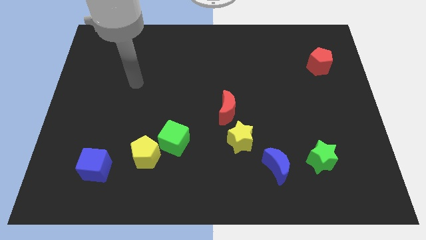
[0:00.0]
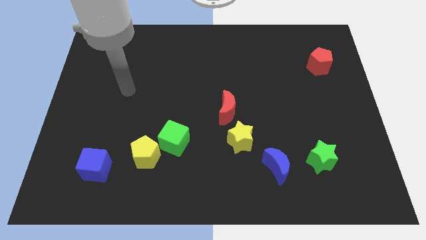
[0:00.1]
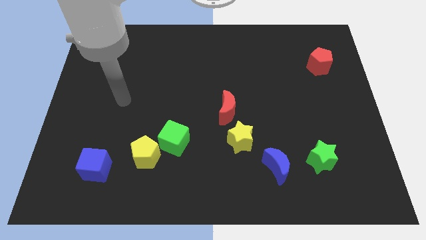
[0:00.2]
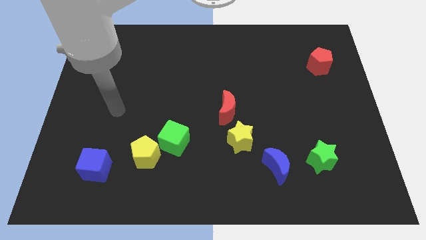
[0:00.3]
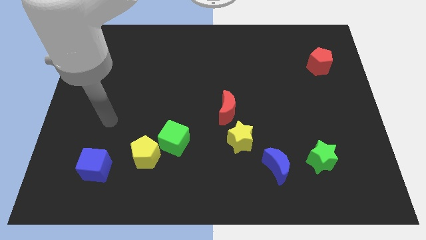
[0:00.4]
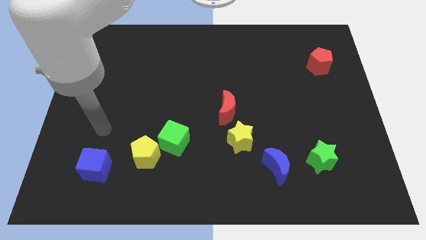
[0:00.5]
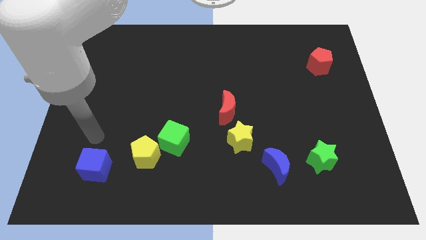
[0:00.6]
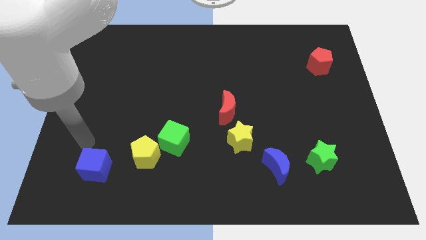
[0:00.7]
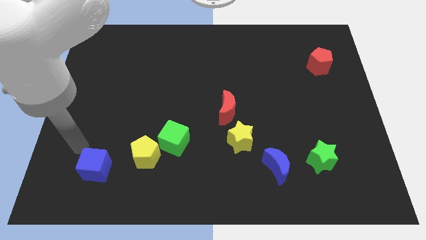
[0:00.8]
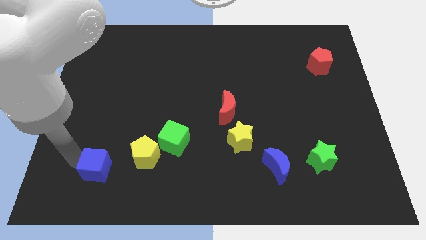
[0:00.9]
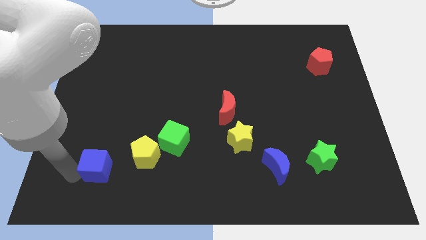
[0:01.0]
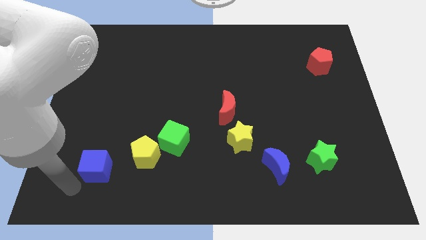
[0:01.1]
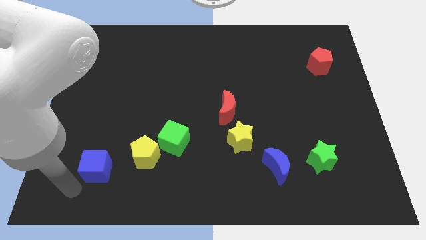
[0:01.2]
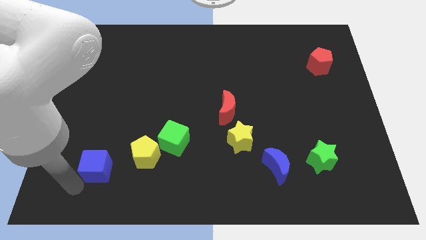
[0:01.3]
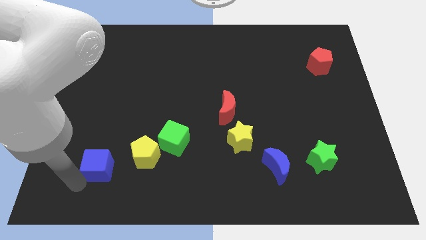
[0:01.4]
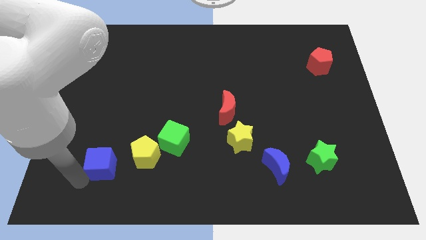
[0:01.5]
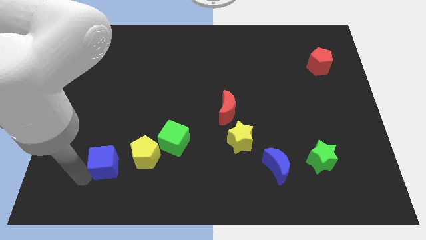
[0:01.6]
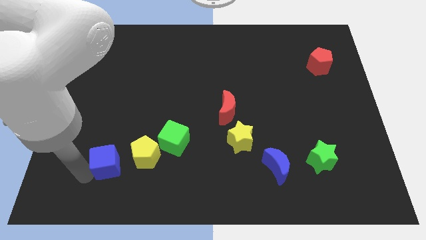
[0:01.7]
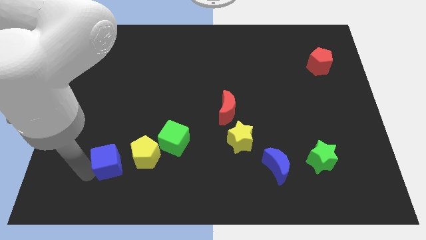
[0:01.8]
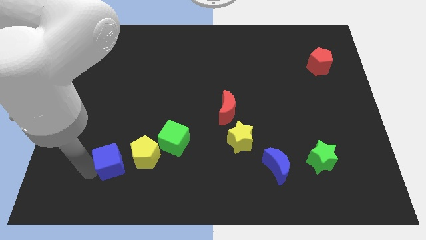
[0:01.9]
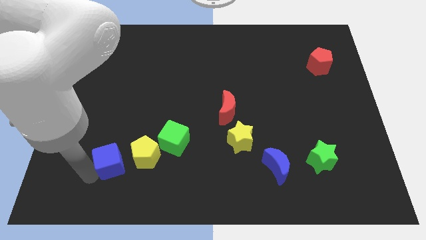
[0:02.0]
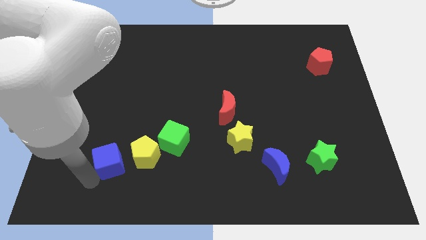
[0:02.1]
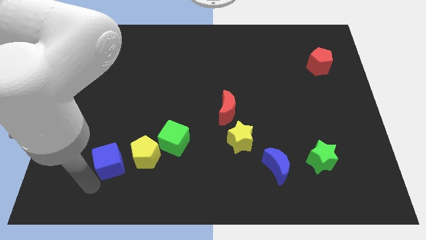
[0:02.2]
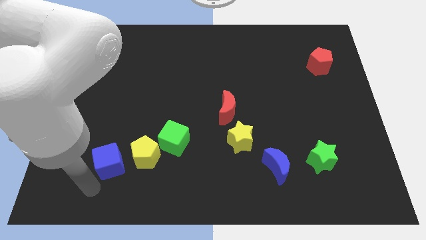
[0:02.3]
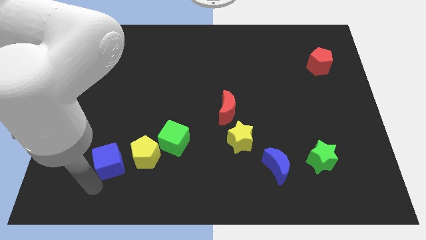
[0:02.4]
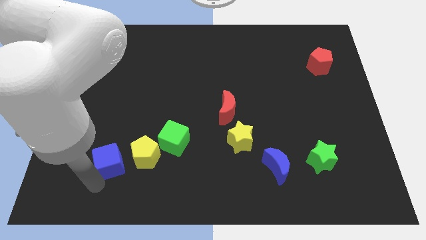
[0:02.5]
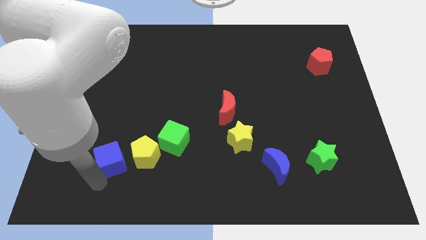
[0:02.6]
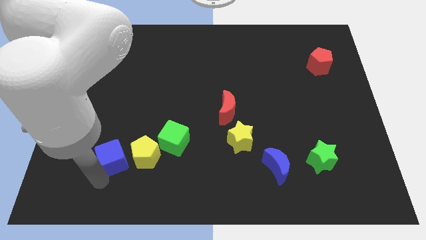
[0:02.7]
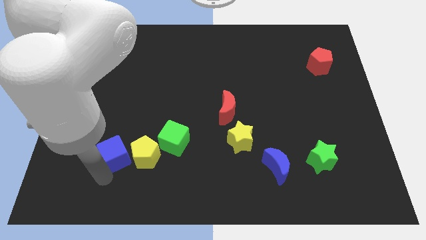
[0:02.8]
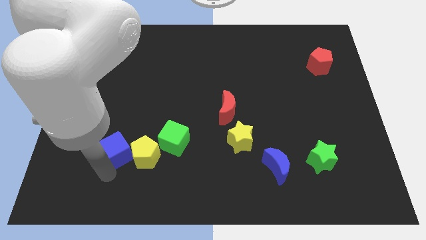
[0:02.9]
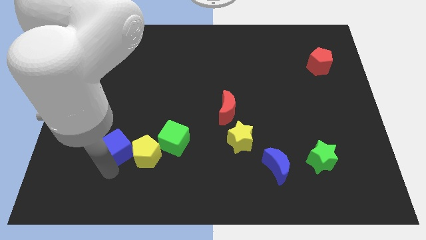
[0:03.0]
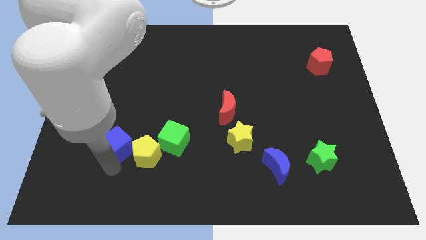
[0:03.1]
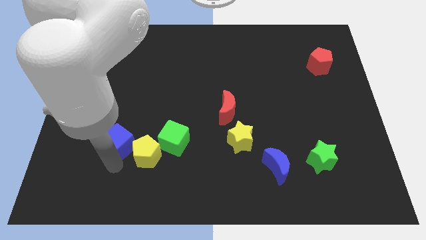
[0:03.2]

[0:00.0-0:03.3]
push the blue cube slightly up and right

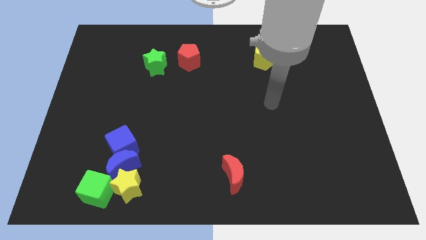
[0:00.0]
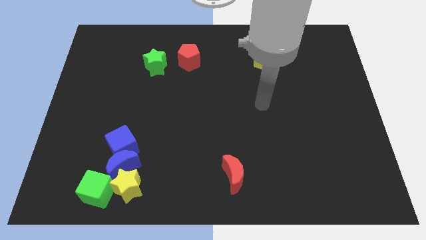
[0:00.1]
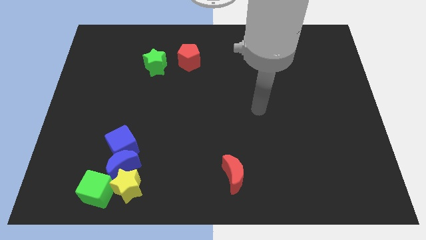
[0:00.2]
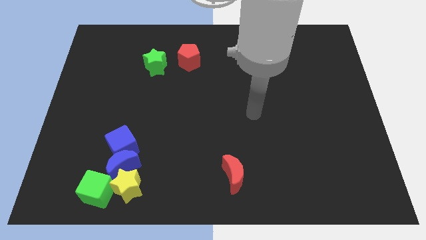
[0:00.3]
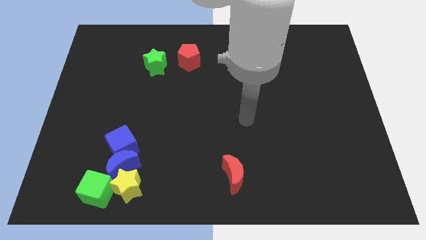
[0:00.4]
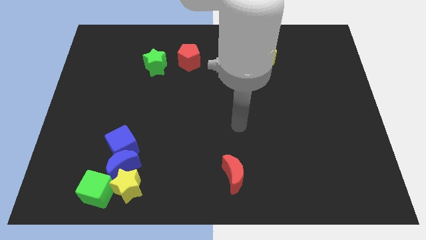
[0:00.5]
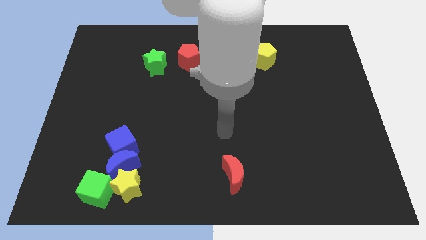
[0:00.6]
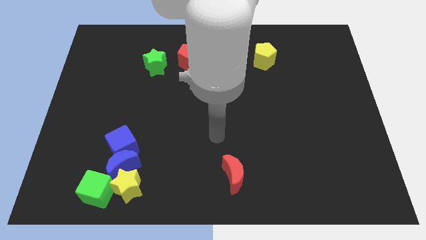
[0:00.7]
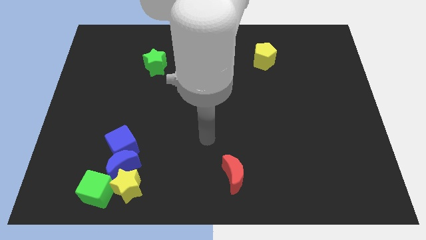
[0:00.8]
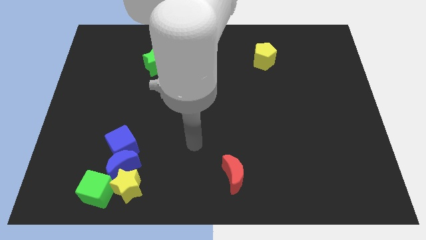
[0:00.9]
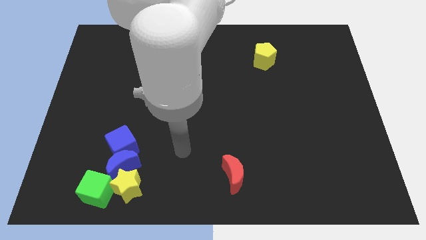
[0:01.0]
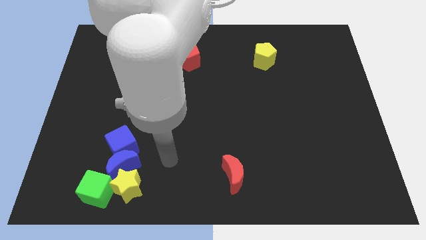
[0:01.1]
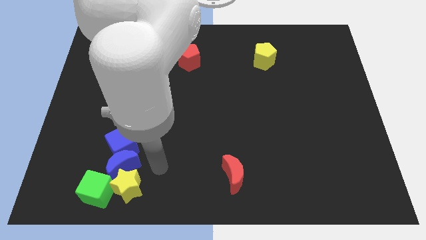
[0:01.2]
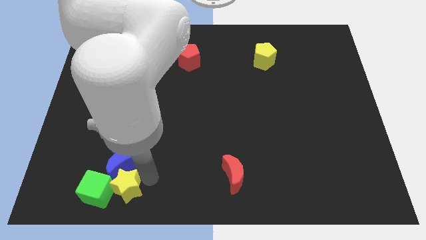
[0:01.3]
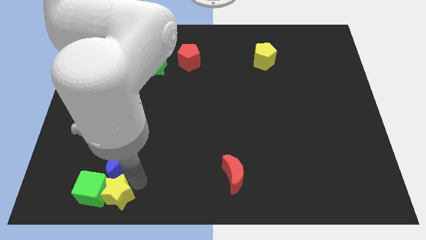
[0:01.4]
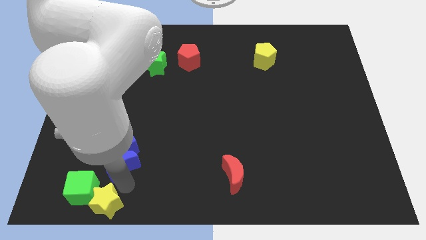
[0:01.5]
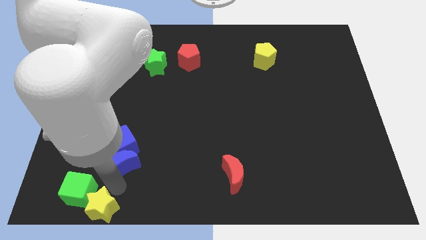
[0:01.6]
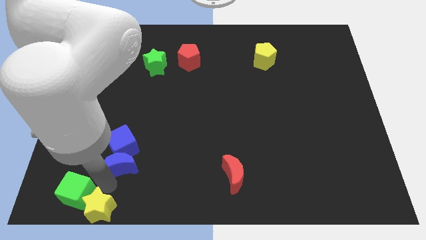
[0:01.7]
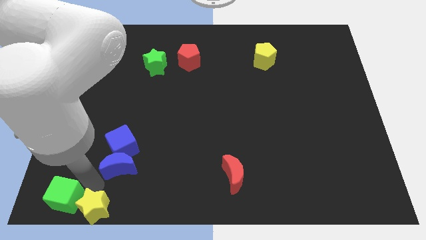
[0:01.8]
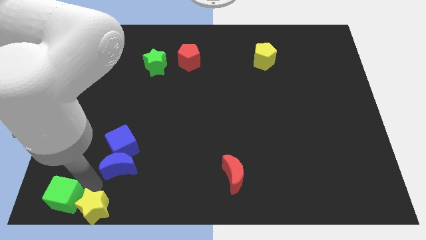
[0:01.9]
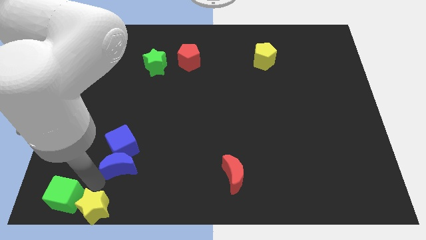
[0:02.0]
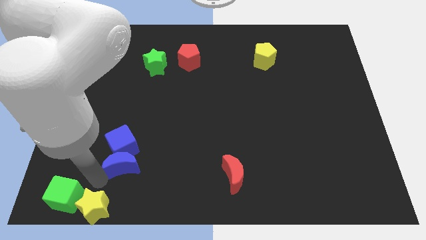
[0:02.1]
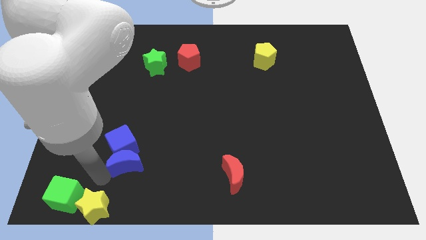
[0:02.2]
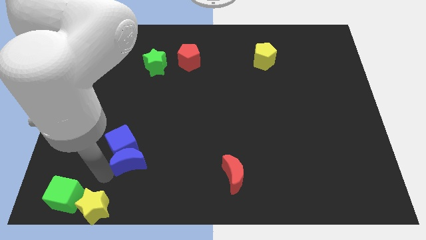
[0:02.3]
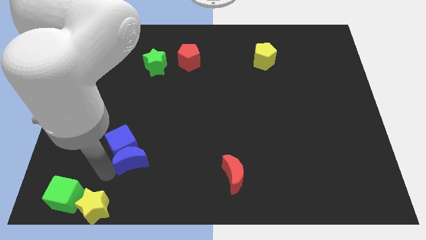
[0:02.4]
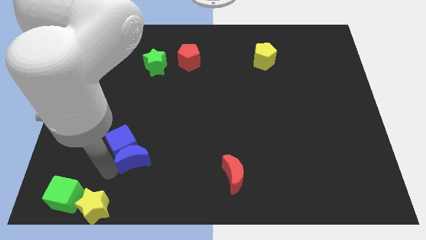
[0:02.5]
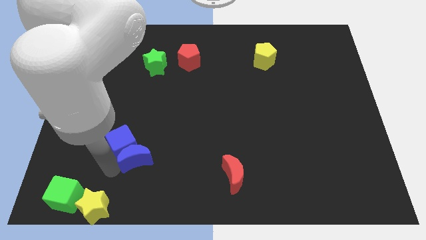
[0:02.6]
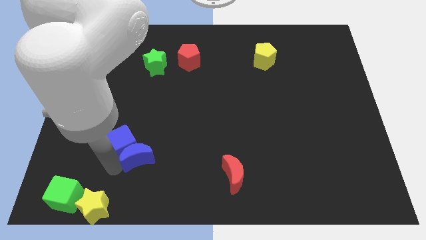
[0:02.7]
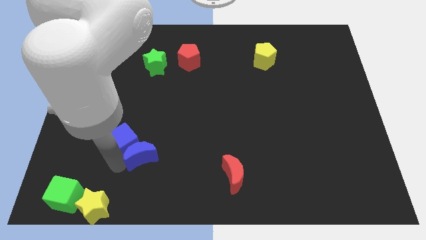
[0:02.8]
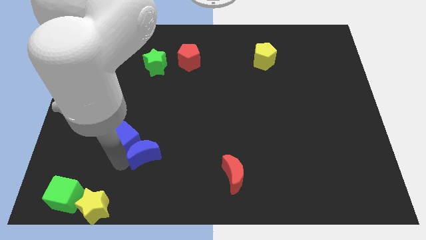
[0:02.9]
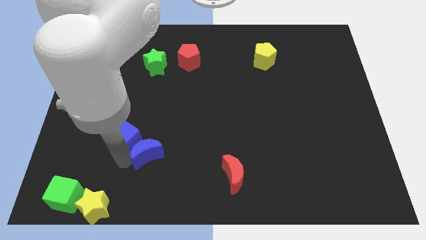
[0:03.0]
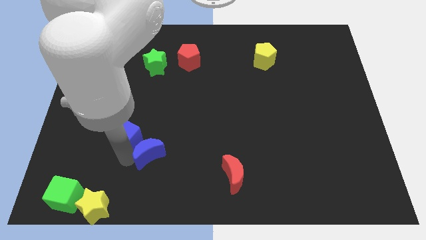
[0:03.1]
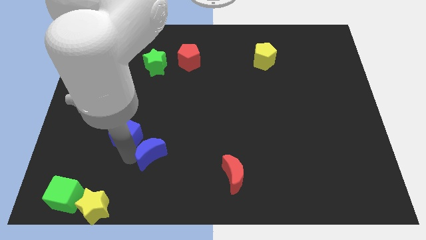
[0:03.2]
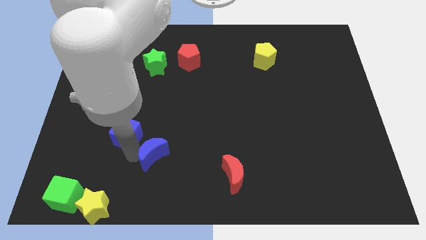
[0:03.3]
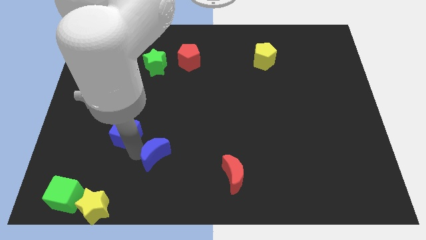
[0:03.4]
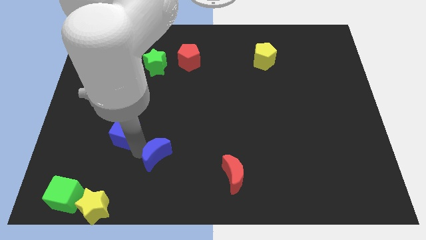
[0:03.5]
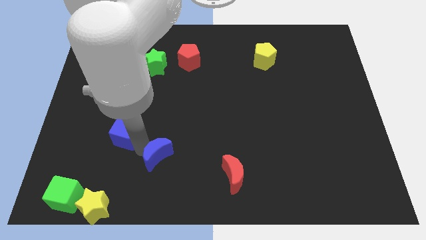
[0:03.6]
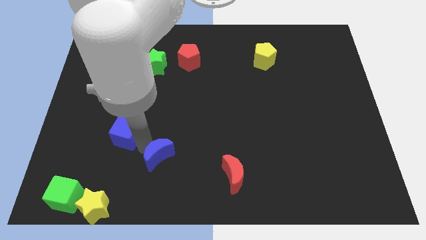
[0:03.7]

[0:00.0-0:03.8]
push the blue moon upwards and right a bit

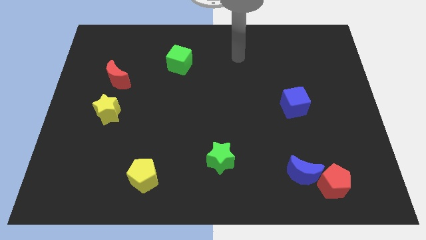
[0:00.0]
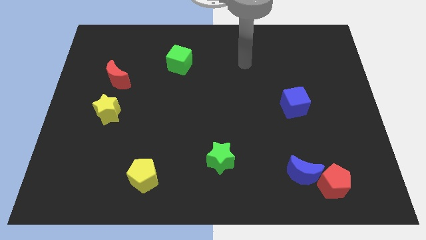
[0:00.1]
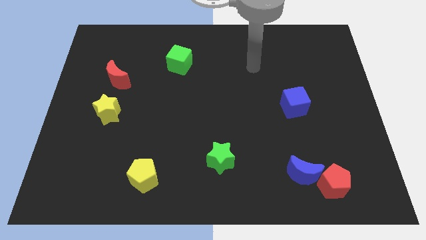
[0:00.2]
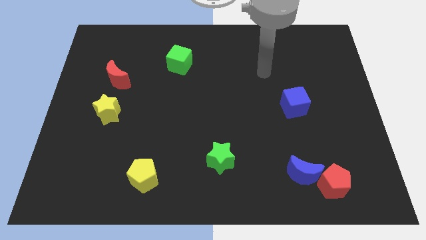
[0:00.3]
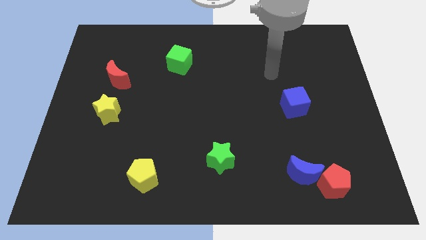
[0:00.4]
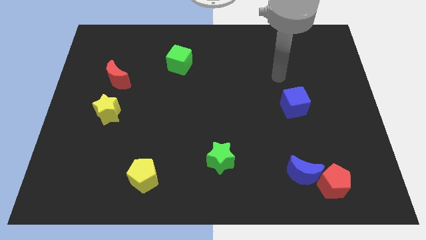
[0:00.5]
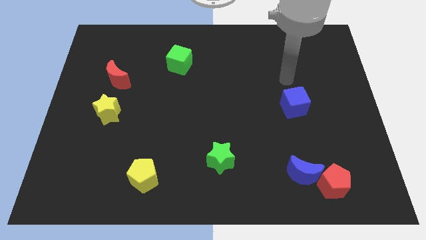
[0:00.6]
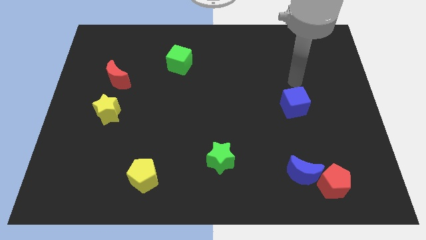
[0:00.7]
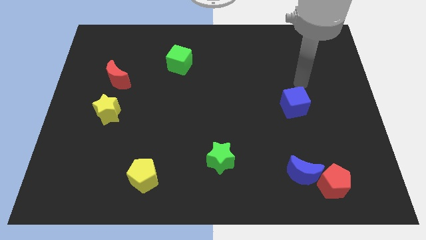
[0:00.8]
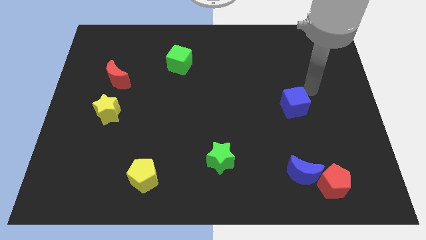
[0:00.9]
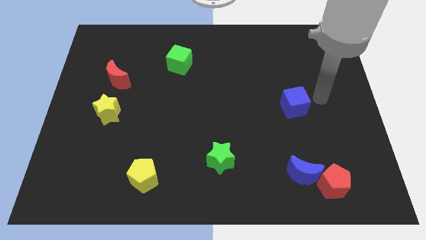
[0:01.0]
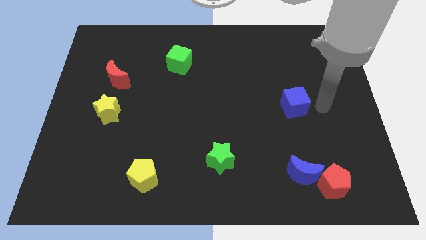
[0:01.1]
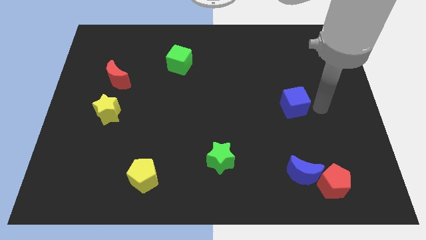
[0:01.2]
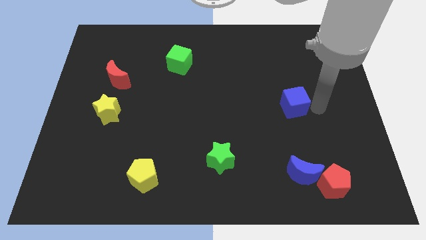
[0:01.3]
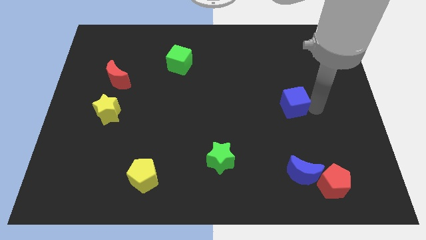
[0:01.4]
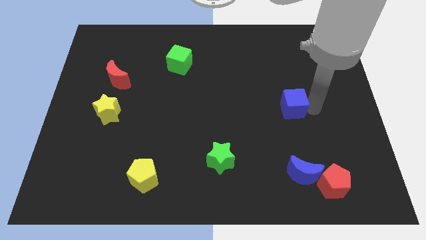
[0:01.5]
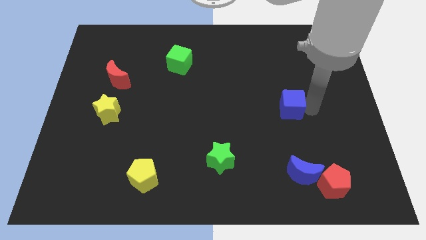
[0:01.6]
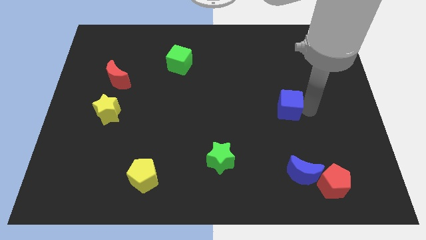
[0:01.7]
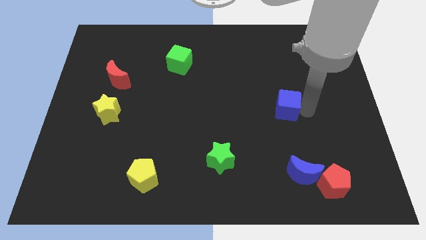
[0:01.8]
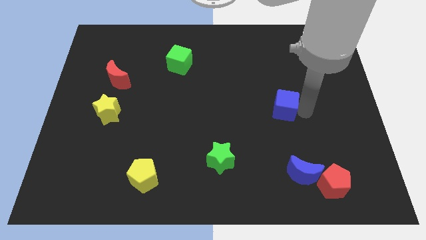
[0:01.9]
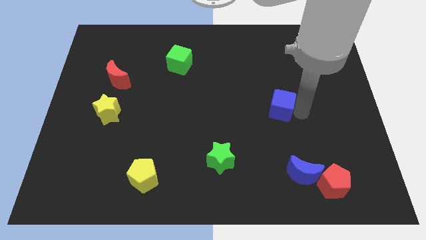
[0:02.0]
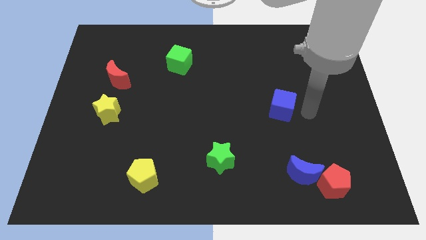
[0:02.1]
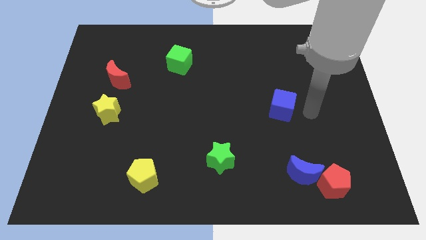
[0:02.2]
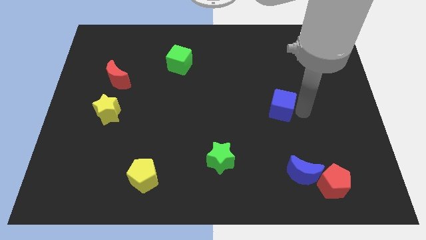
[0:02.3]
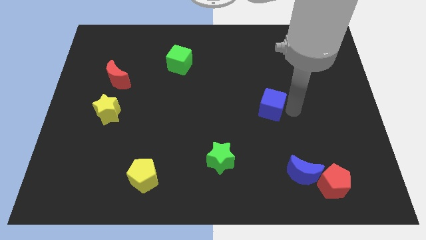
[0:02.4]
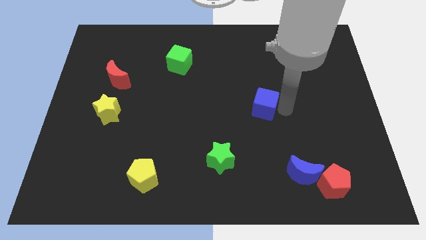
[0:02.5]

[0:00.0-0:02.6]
slightly move the blue cube left
